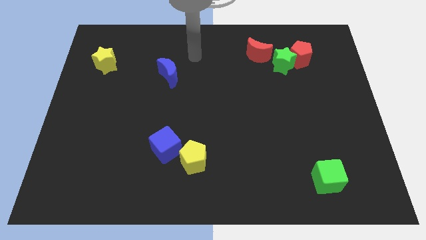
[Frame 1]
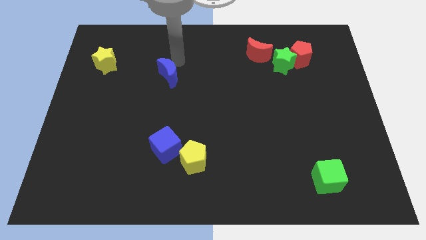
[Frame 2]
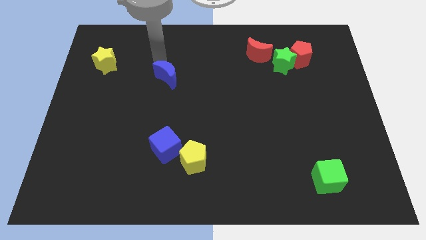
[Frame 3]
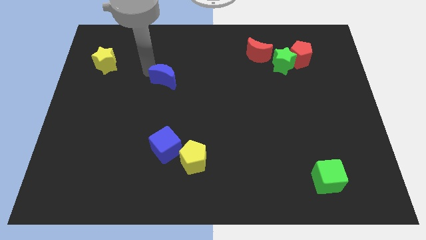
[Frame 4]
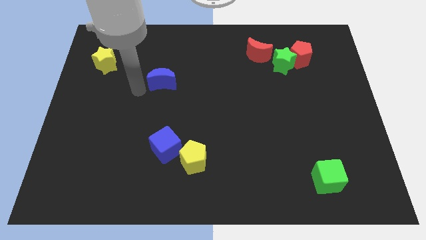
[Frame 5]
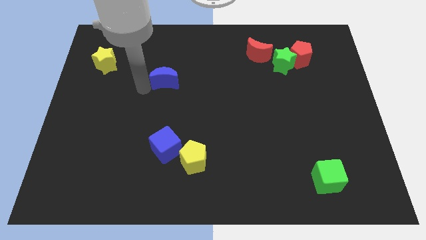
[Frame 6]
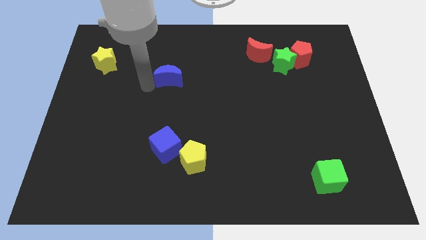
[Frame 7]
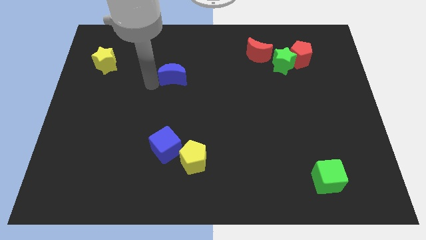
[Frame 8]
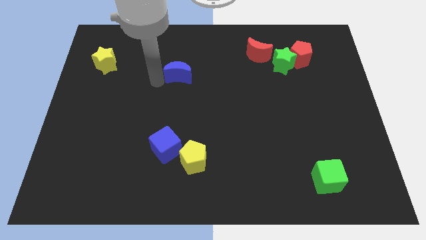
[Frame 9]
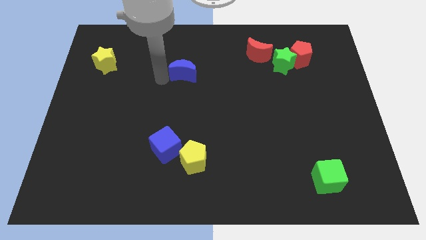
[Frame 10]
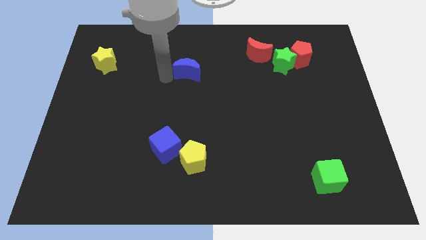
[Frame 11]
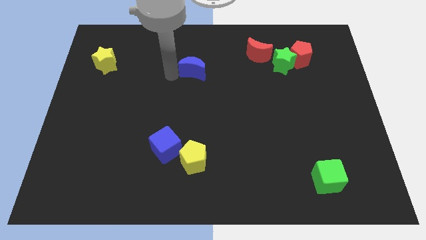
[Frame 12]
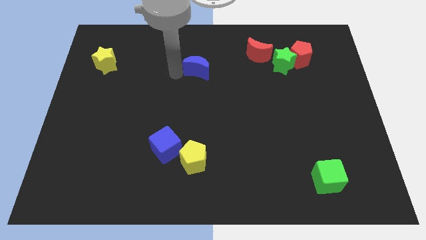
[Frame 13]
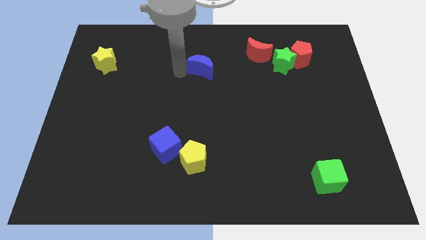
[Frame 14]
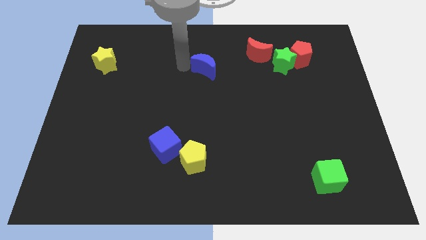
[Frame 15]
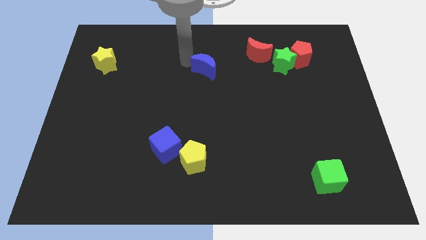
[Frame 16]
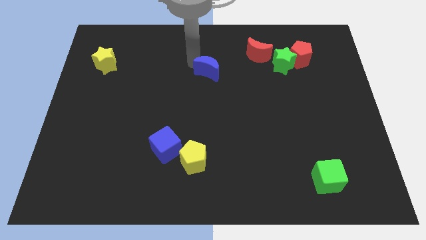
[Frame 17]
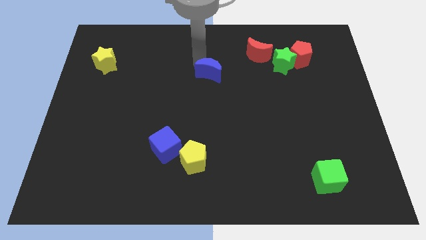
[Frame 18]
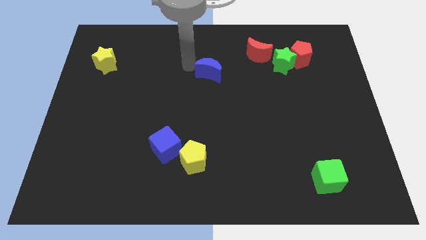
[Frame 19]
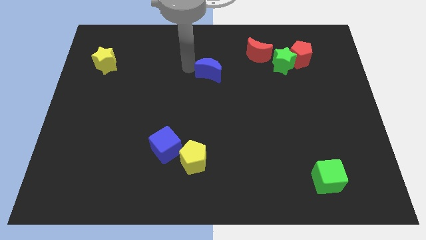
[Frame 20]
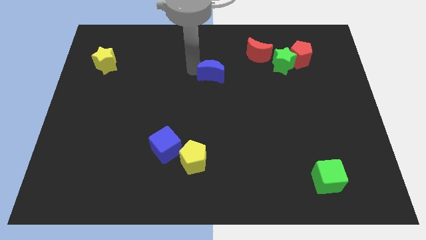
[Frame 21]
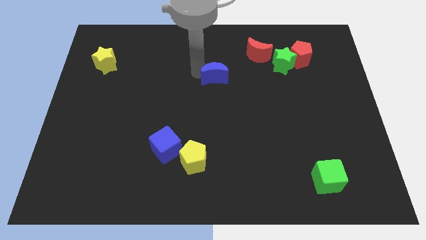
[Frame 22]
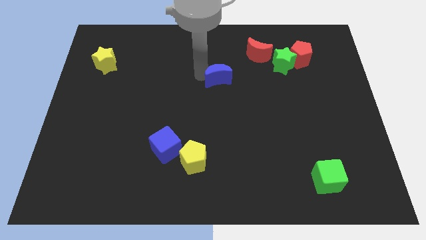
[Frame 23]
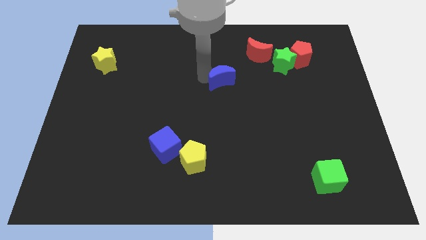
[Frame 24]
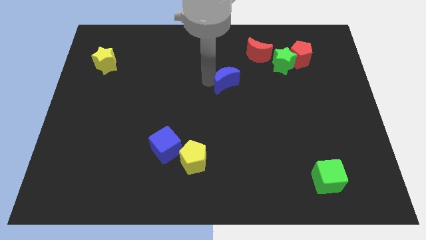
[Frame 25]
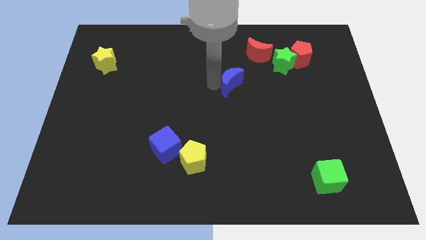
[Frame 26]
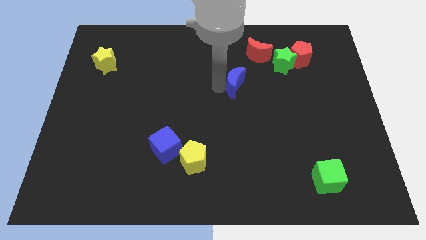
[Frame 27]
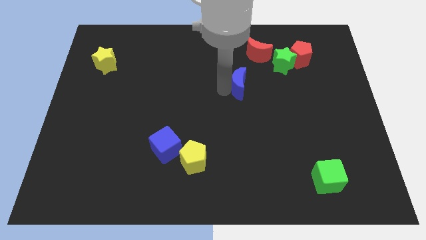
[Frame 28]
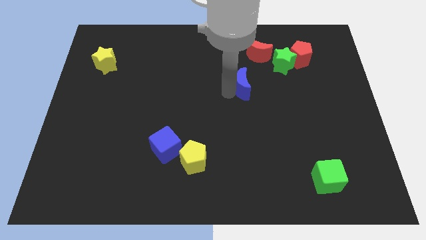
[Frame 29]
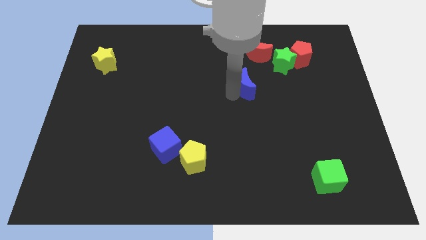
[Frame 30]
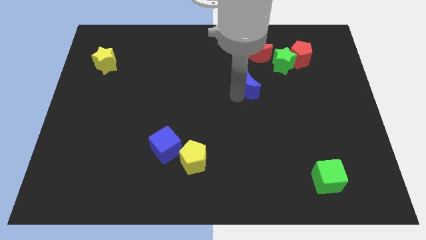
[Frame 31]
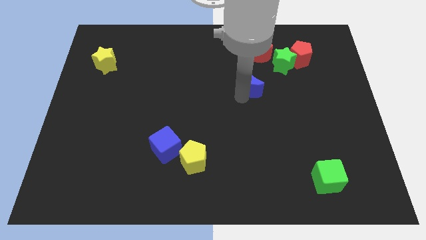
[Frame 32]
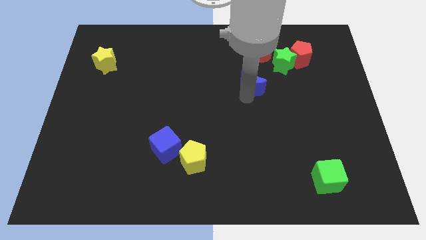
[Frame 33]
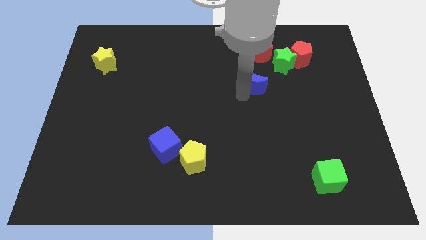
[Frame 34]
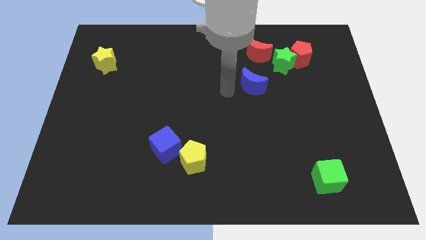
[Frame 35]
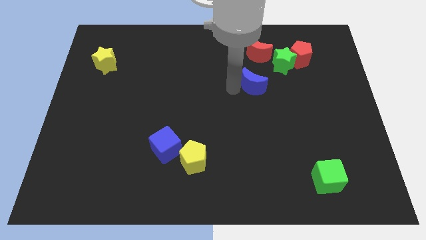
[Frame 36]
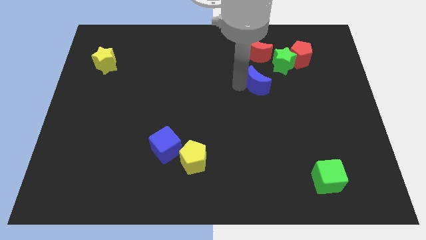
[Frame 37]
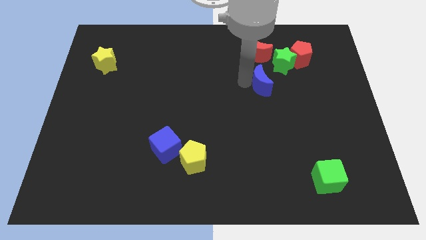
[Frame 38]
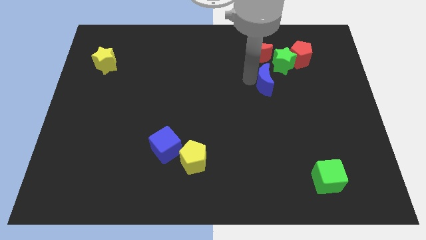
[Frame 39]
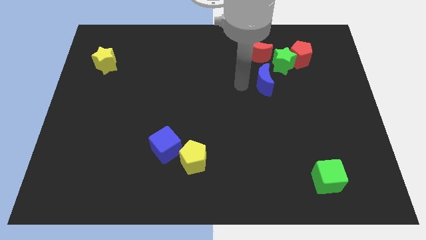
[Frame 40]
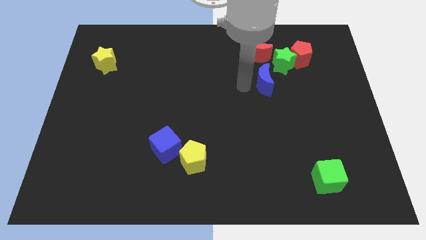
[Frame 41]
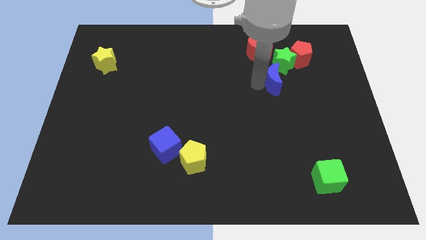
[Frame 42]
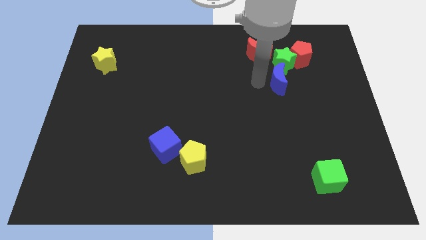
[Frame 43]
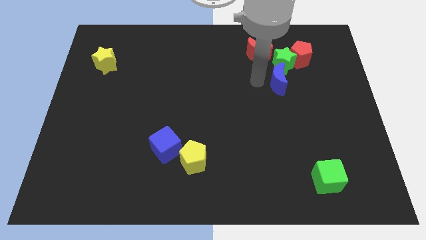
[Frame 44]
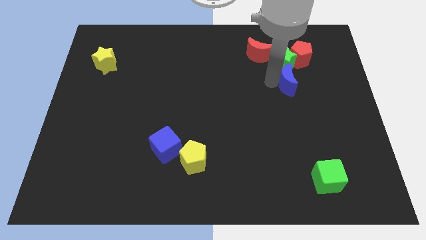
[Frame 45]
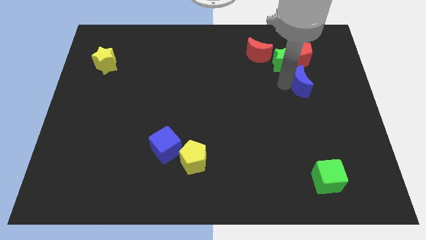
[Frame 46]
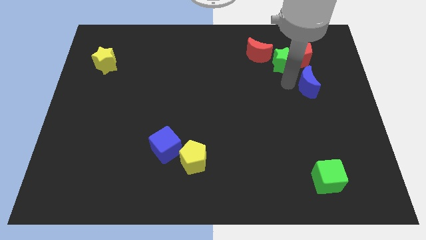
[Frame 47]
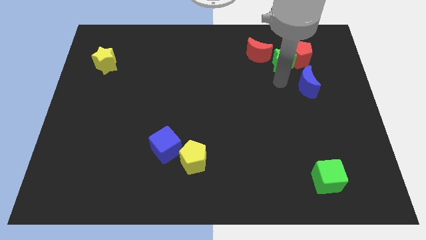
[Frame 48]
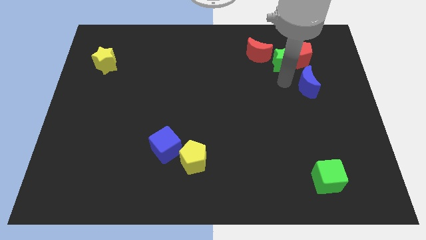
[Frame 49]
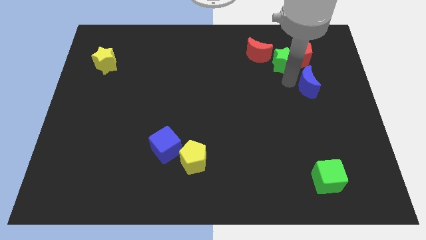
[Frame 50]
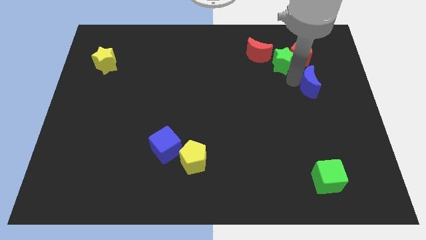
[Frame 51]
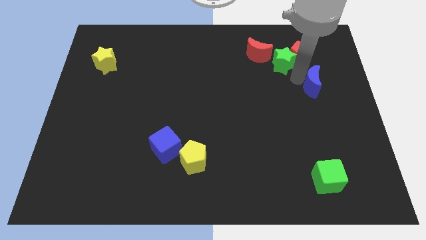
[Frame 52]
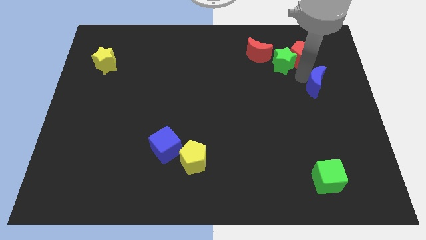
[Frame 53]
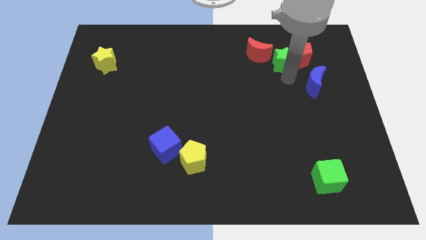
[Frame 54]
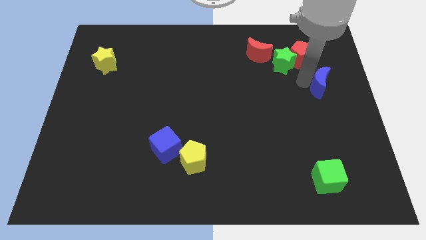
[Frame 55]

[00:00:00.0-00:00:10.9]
move the blue moon to the center right
